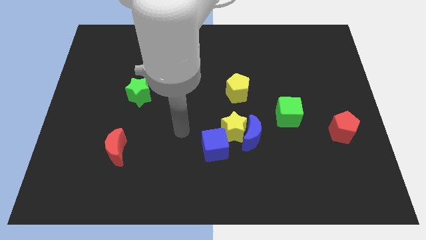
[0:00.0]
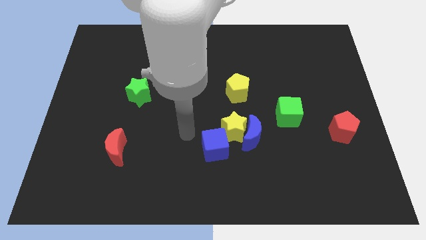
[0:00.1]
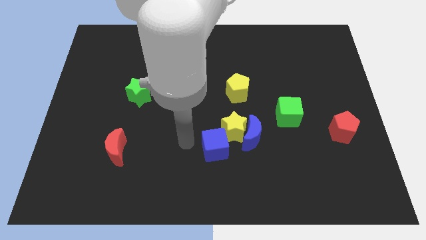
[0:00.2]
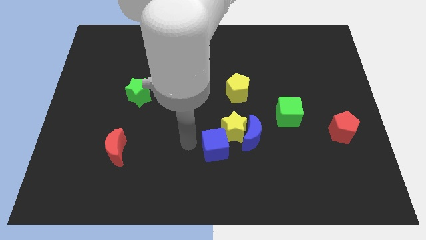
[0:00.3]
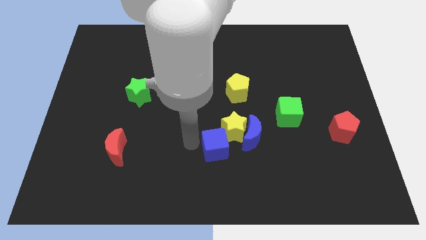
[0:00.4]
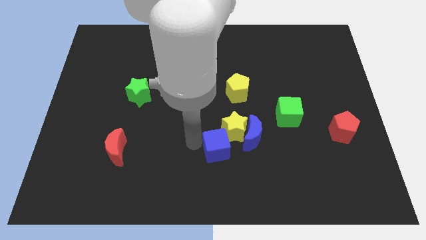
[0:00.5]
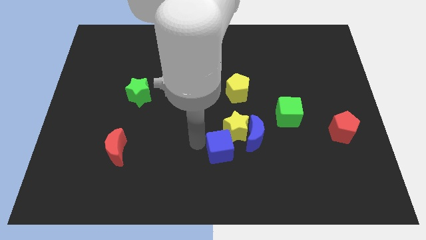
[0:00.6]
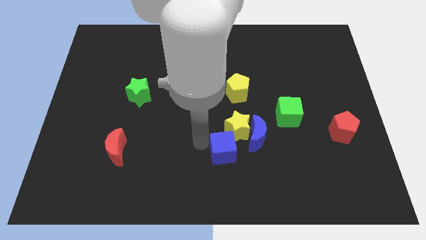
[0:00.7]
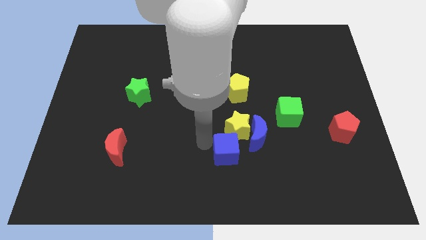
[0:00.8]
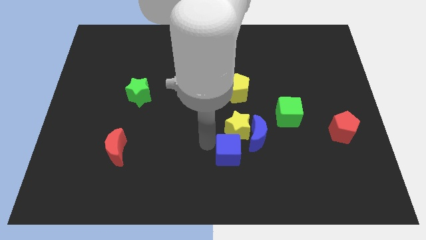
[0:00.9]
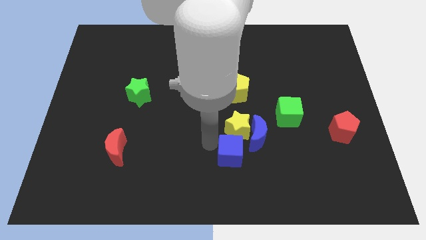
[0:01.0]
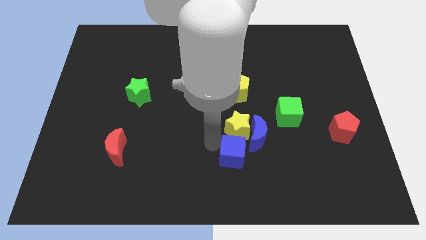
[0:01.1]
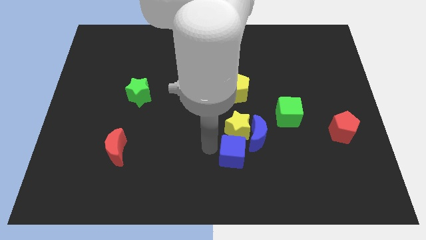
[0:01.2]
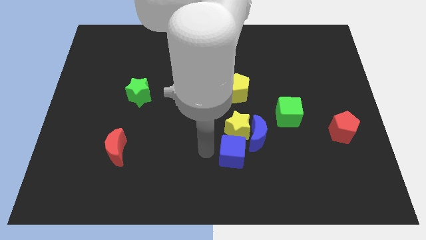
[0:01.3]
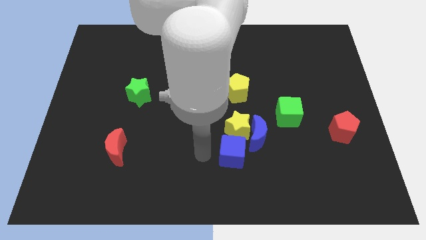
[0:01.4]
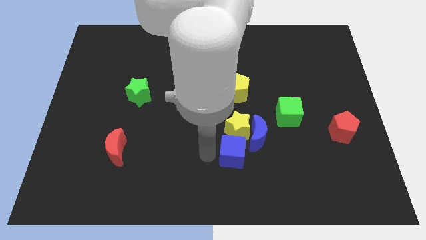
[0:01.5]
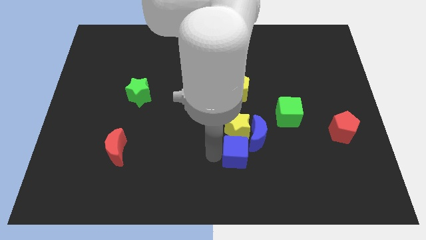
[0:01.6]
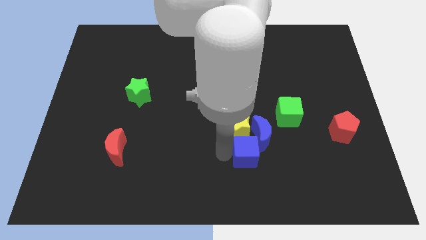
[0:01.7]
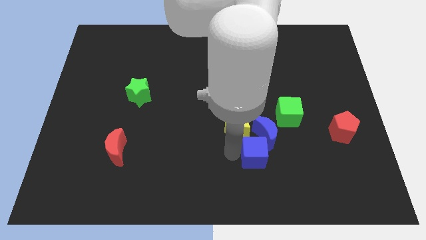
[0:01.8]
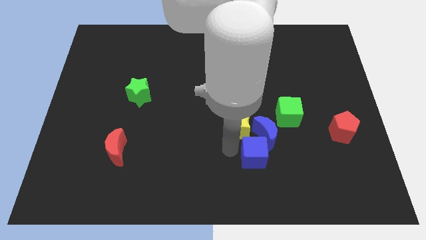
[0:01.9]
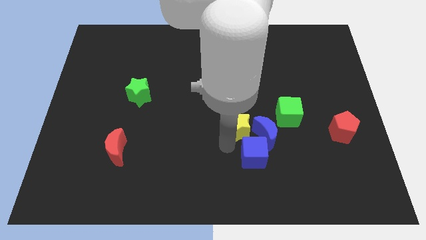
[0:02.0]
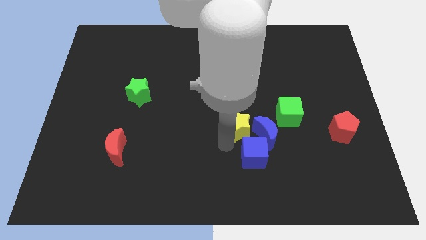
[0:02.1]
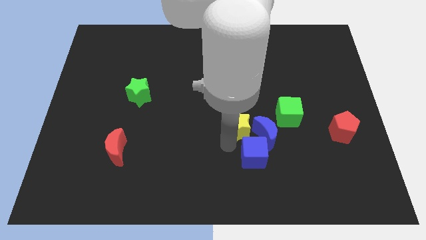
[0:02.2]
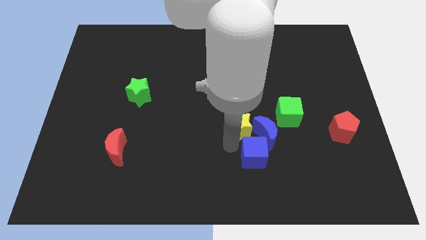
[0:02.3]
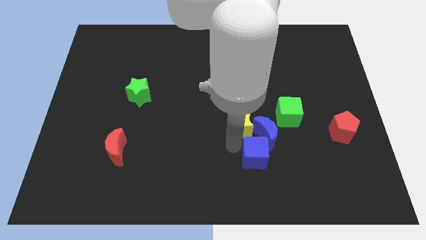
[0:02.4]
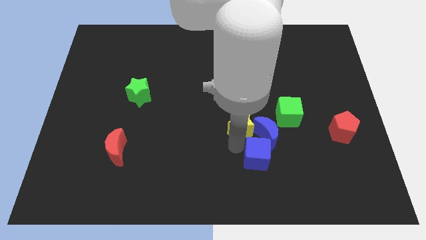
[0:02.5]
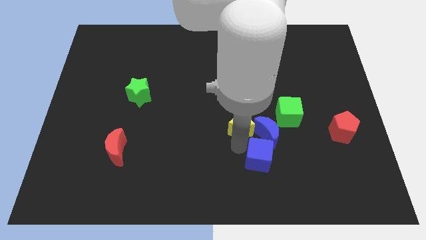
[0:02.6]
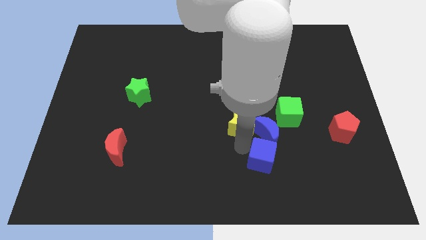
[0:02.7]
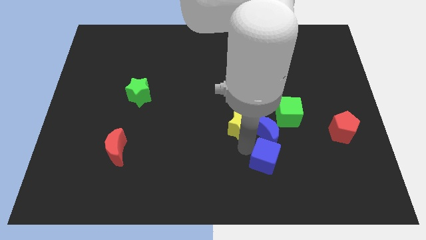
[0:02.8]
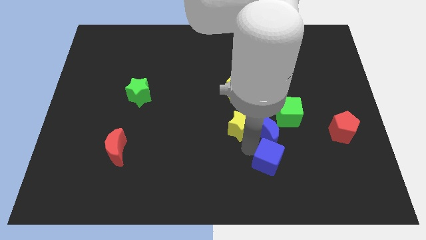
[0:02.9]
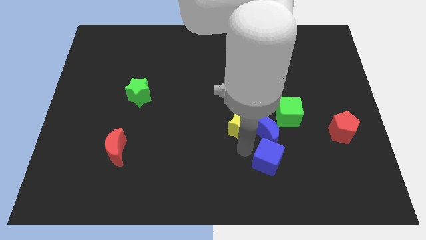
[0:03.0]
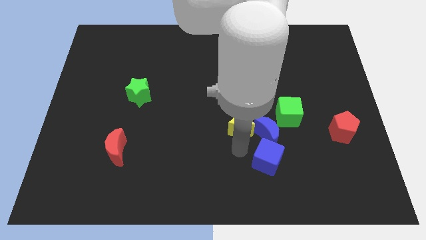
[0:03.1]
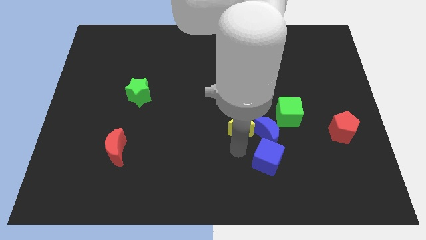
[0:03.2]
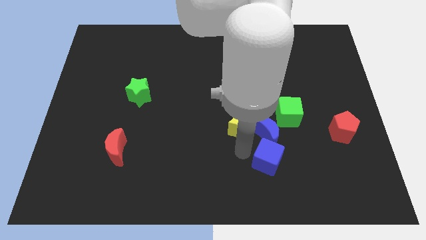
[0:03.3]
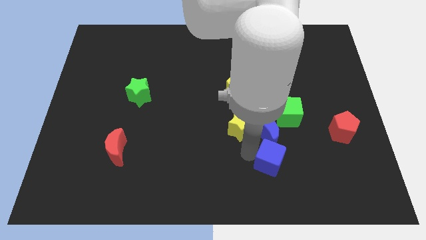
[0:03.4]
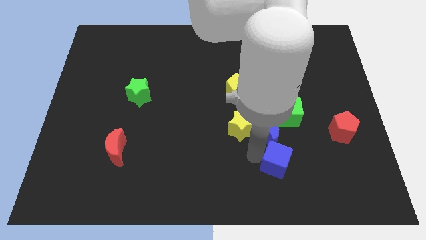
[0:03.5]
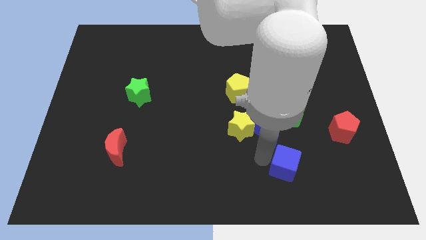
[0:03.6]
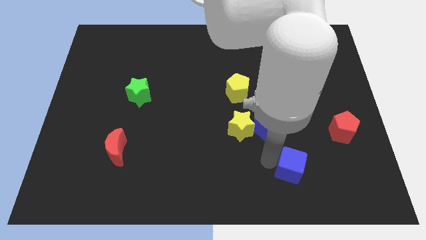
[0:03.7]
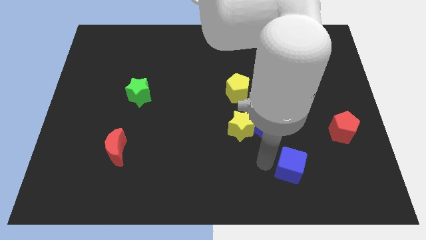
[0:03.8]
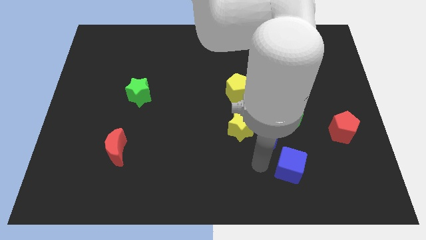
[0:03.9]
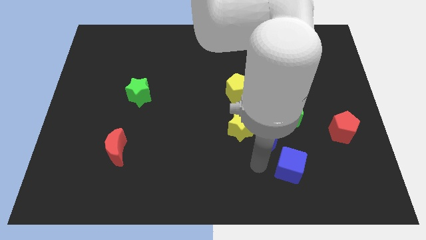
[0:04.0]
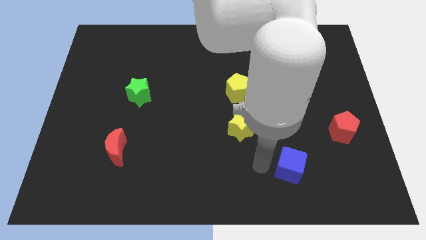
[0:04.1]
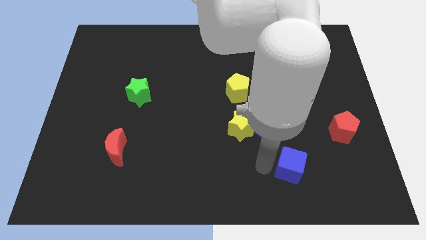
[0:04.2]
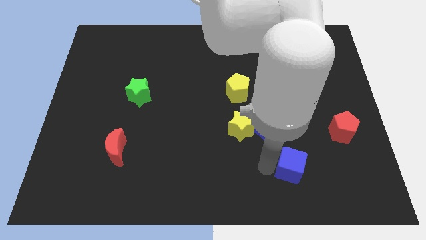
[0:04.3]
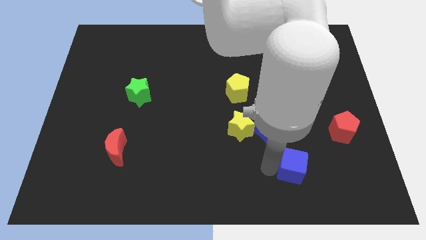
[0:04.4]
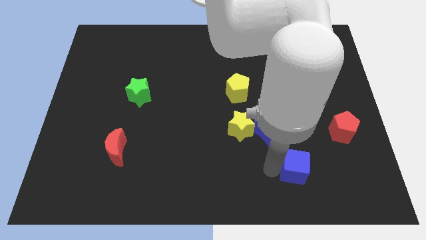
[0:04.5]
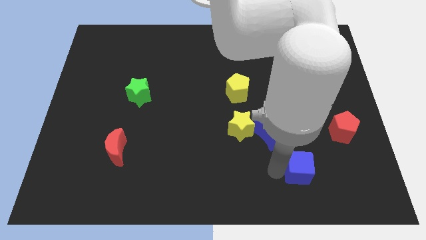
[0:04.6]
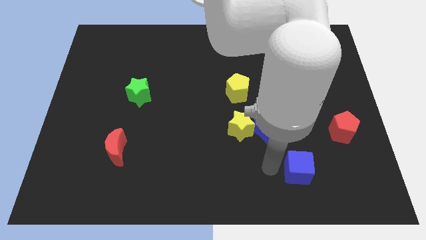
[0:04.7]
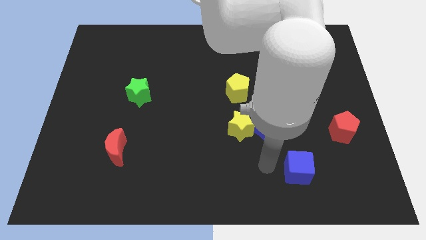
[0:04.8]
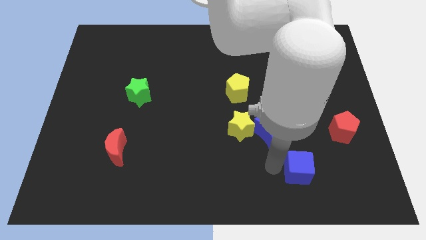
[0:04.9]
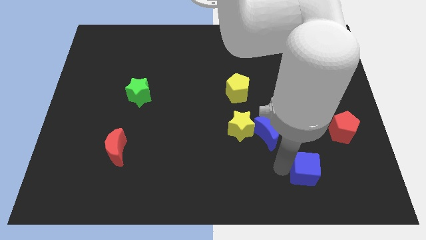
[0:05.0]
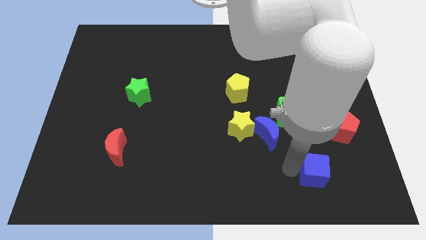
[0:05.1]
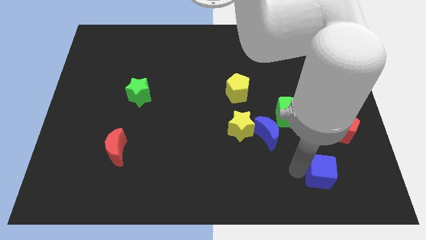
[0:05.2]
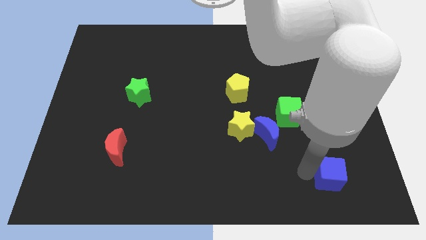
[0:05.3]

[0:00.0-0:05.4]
slide the blue cube to the bottom side of the red pentagon

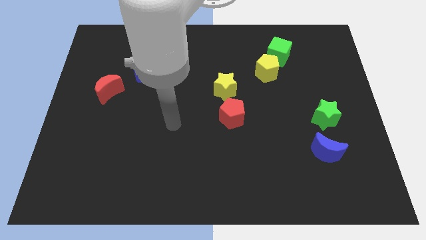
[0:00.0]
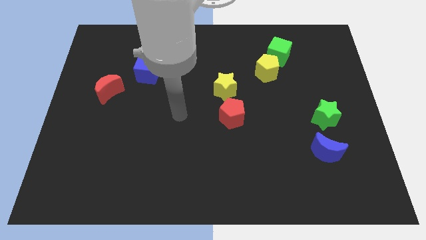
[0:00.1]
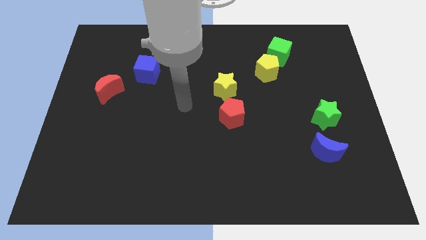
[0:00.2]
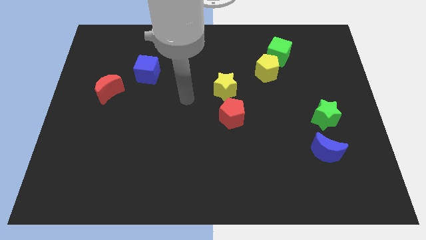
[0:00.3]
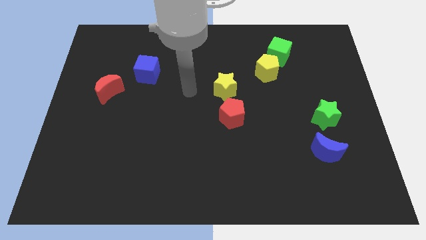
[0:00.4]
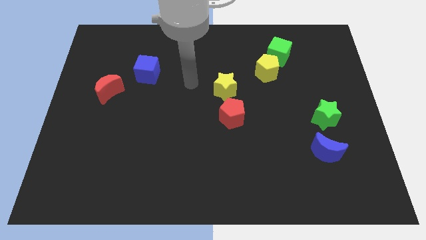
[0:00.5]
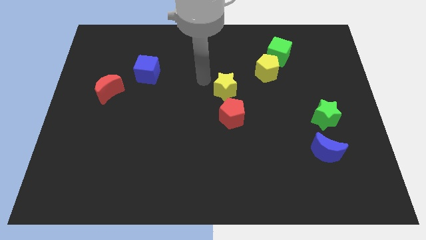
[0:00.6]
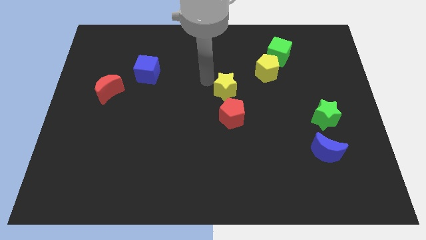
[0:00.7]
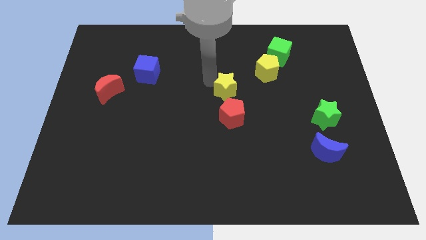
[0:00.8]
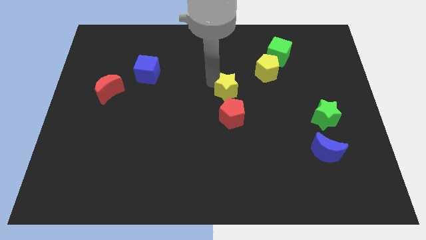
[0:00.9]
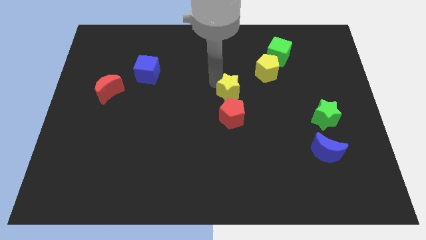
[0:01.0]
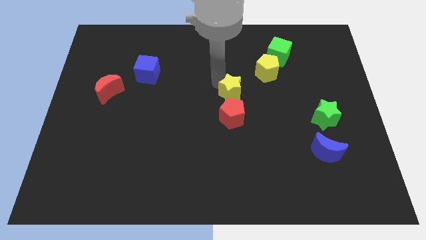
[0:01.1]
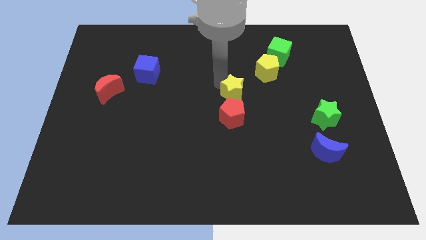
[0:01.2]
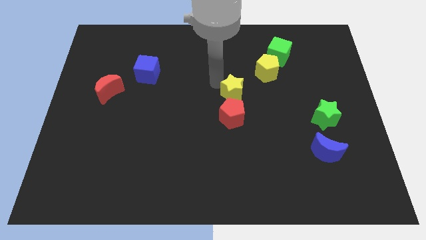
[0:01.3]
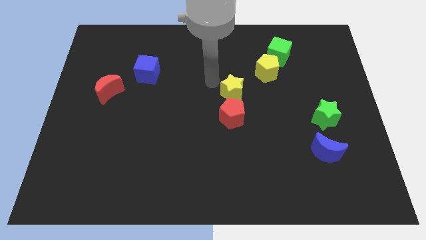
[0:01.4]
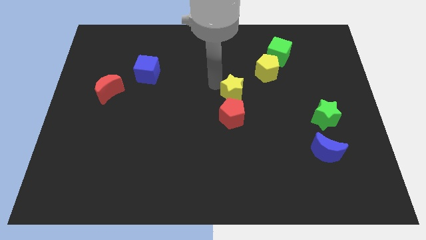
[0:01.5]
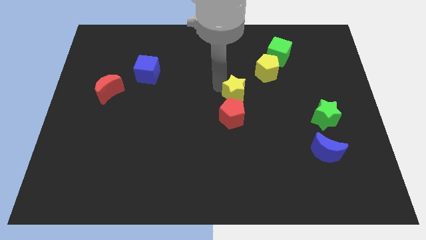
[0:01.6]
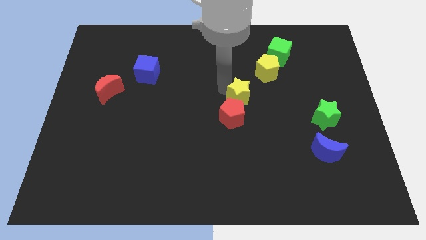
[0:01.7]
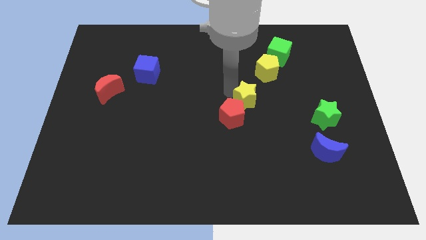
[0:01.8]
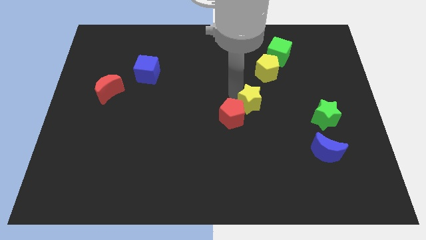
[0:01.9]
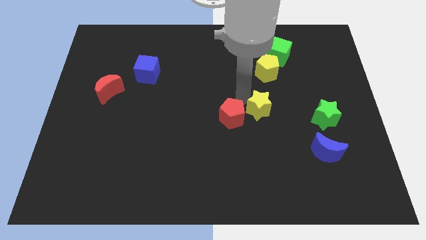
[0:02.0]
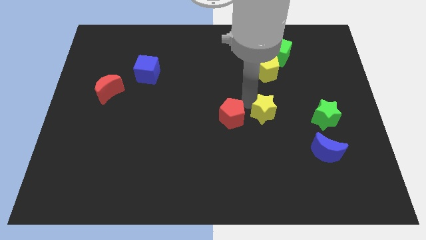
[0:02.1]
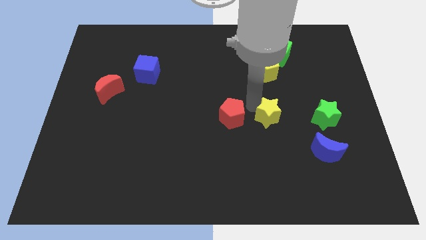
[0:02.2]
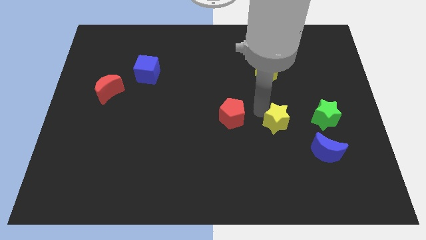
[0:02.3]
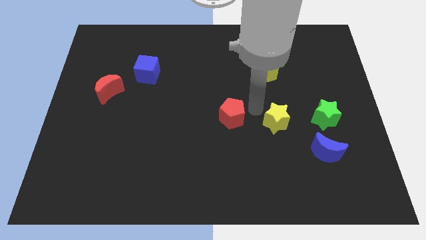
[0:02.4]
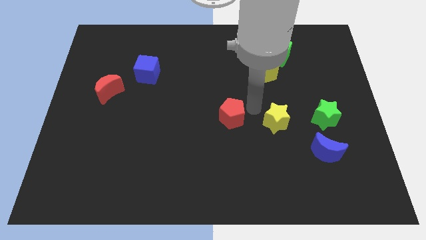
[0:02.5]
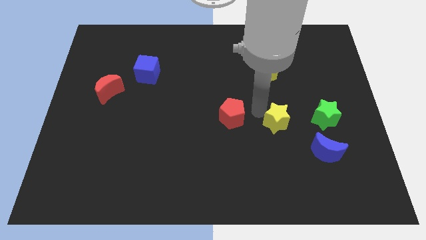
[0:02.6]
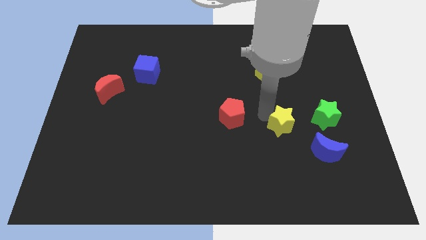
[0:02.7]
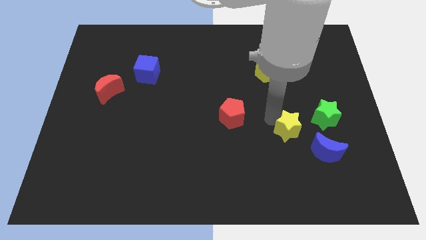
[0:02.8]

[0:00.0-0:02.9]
move the yellow star diagonally down and to the left of the green star
